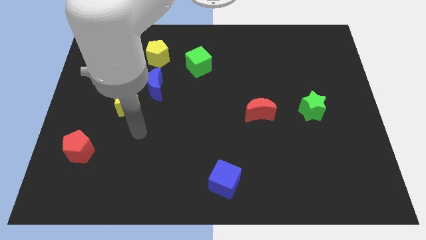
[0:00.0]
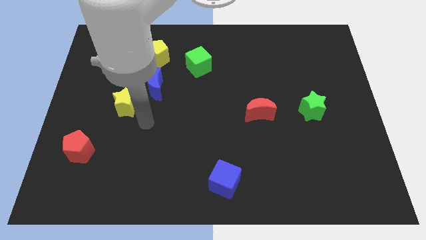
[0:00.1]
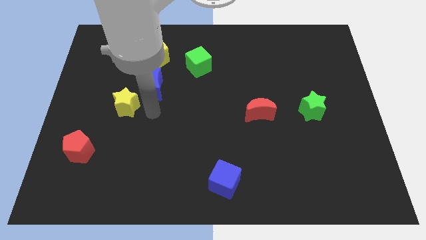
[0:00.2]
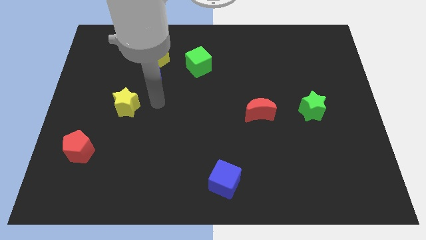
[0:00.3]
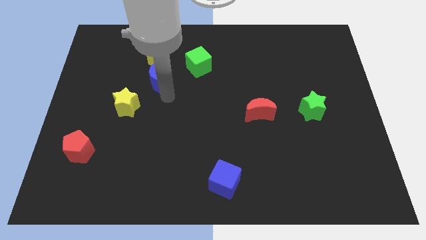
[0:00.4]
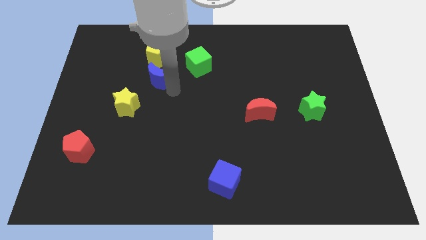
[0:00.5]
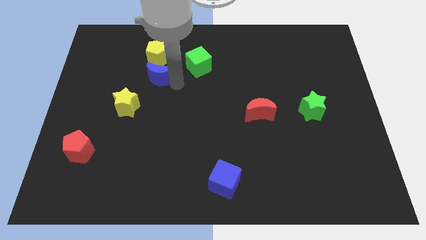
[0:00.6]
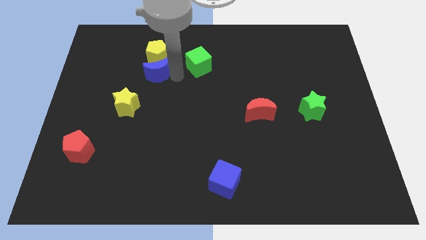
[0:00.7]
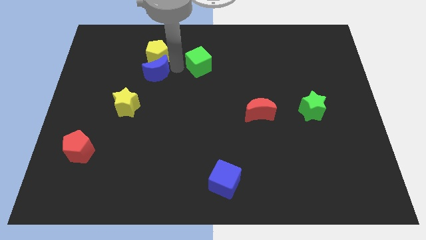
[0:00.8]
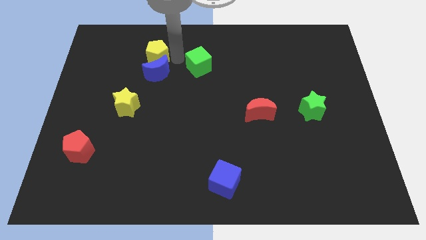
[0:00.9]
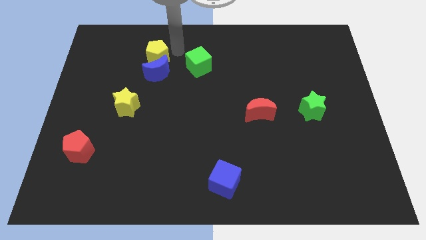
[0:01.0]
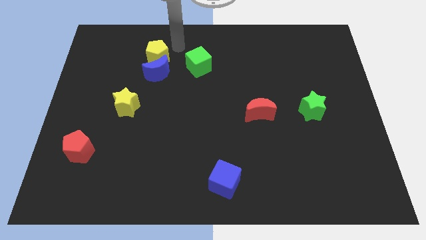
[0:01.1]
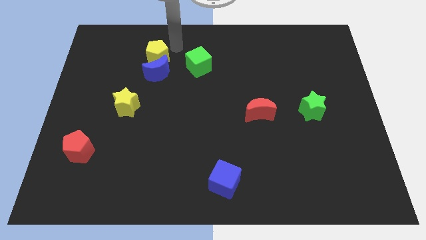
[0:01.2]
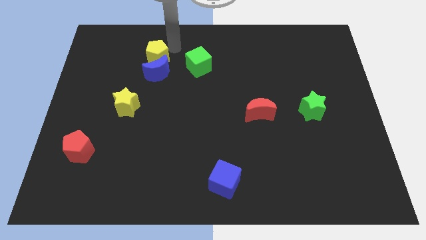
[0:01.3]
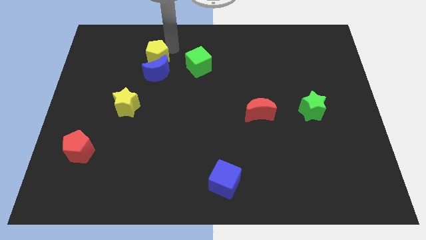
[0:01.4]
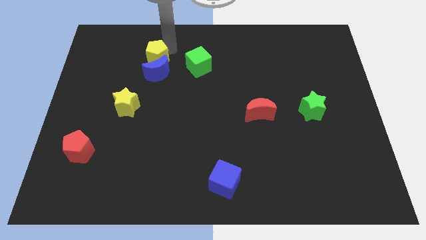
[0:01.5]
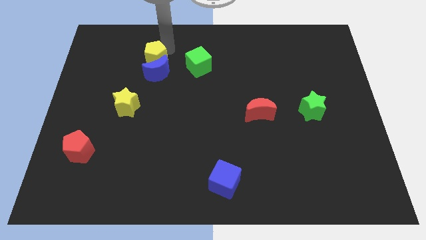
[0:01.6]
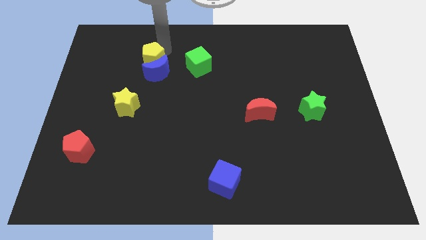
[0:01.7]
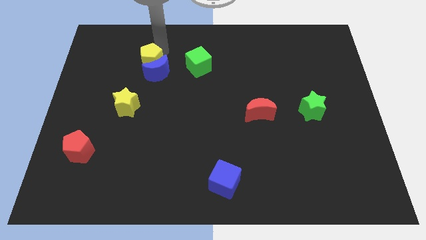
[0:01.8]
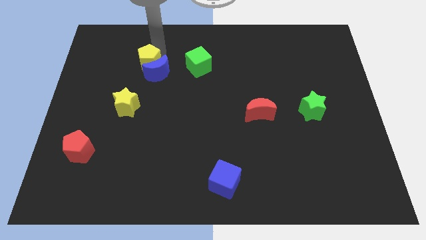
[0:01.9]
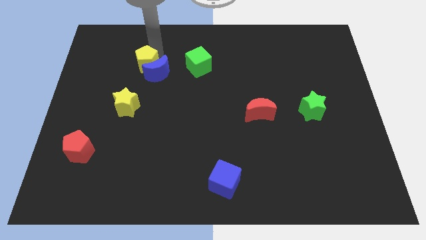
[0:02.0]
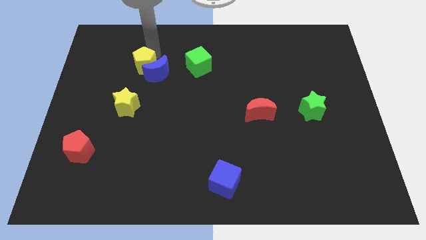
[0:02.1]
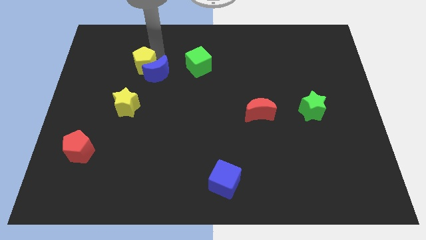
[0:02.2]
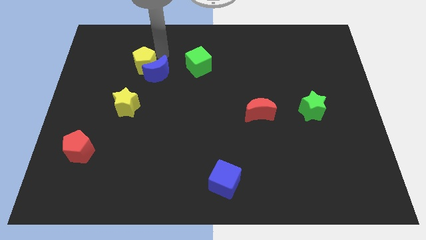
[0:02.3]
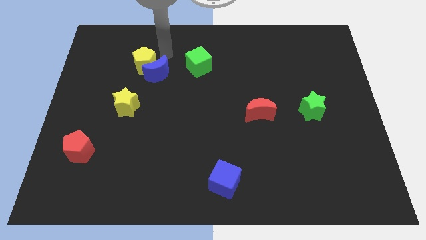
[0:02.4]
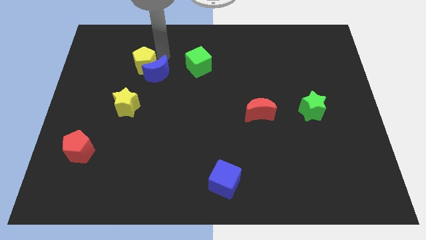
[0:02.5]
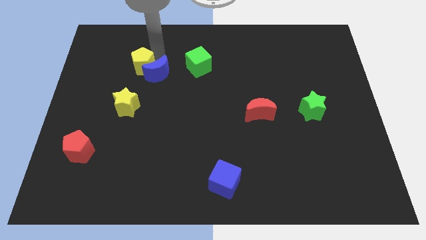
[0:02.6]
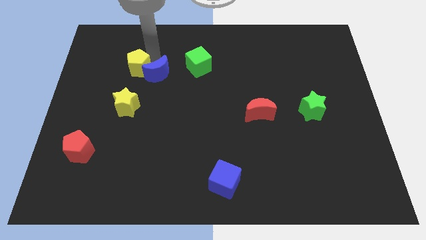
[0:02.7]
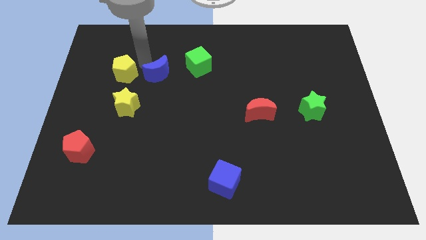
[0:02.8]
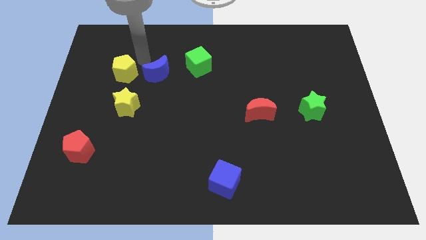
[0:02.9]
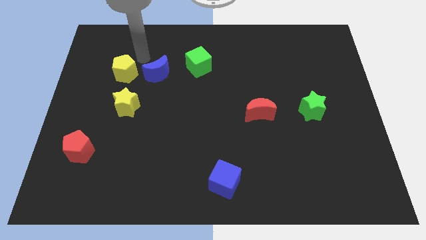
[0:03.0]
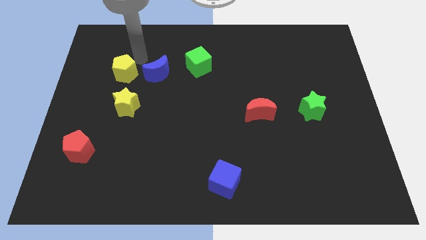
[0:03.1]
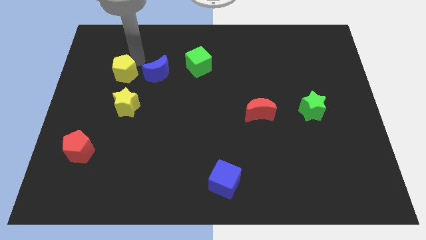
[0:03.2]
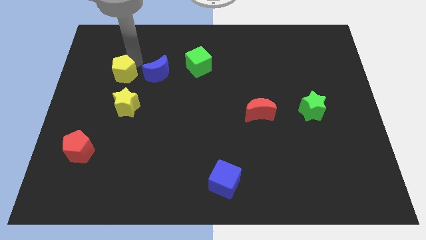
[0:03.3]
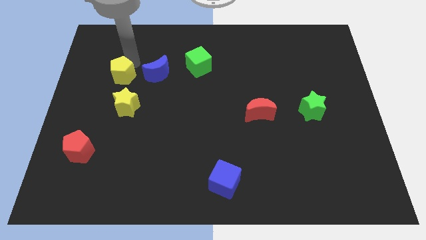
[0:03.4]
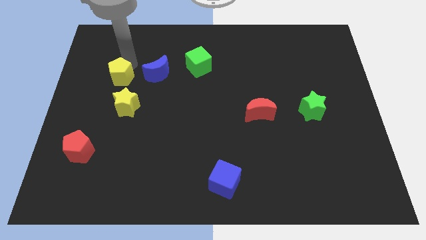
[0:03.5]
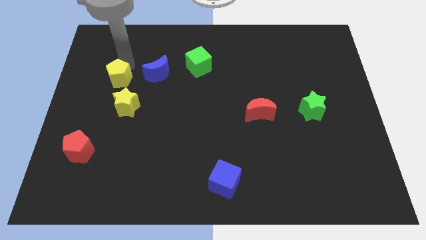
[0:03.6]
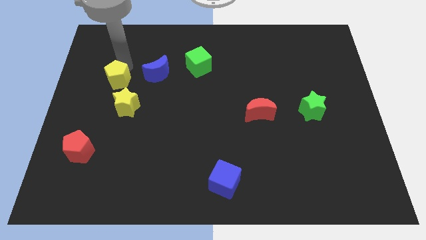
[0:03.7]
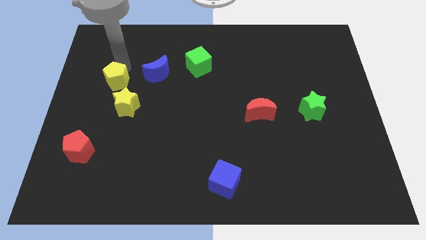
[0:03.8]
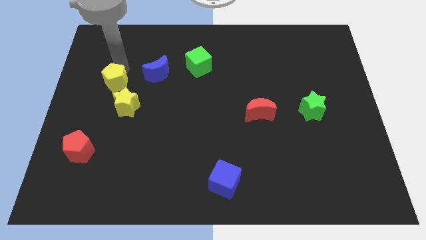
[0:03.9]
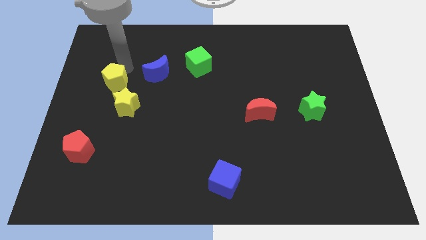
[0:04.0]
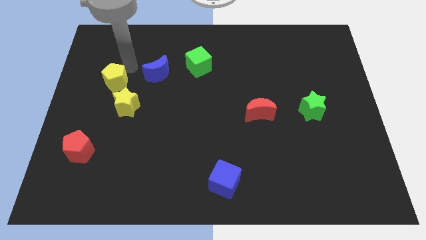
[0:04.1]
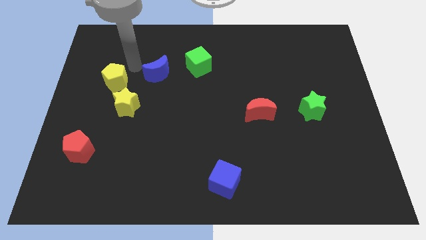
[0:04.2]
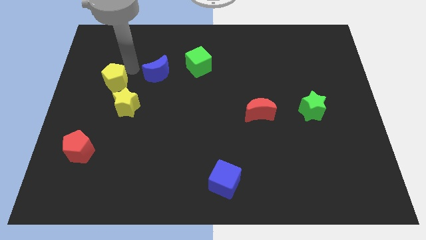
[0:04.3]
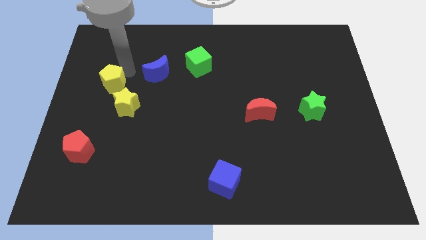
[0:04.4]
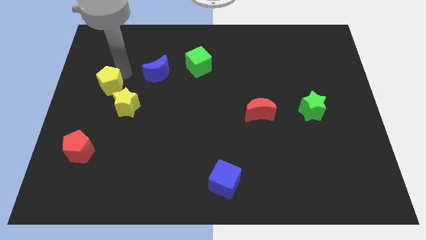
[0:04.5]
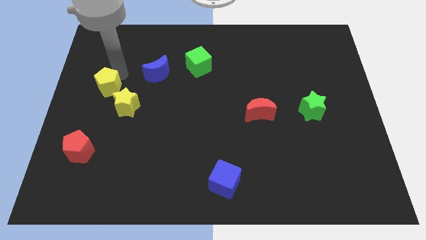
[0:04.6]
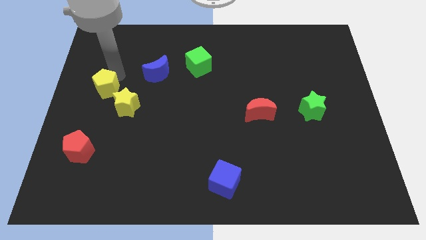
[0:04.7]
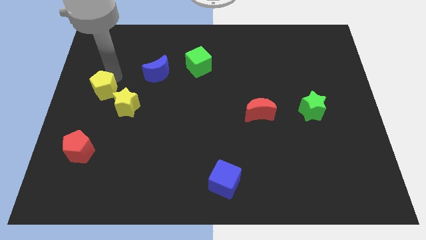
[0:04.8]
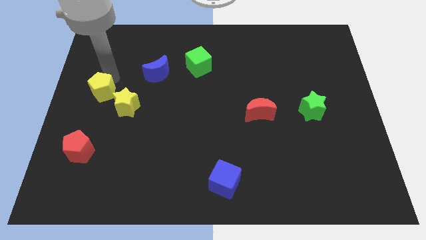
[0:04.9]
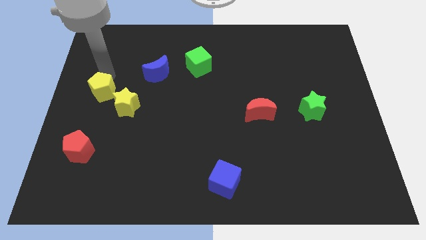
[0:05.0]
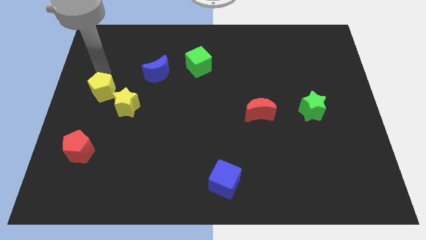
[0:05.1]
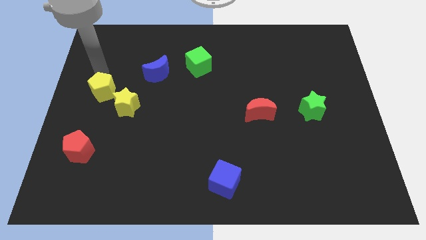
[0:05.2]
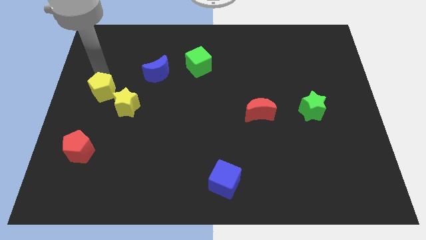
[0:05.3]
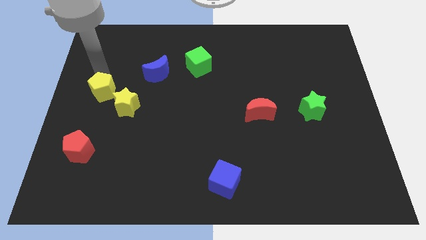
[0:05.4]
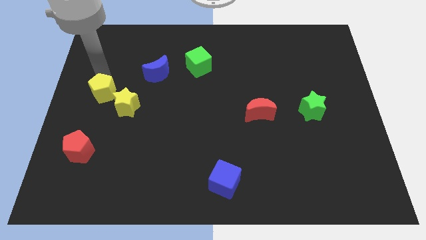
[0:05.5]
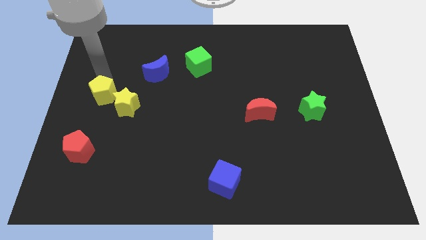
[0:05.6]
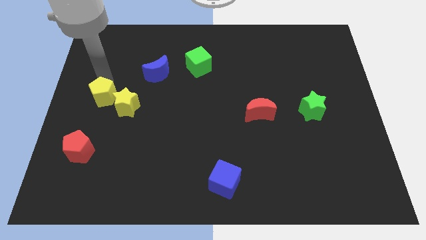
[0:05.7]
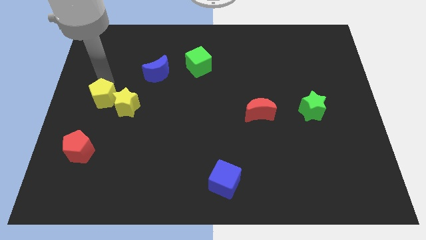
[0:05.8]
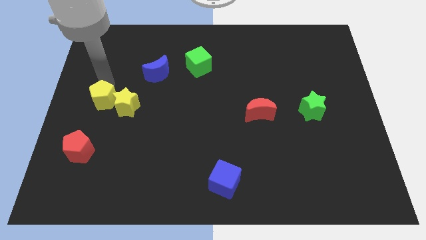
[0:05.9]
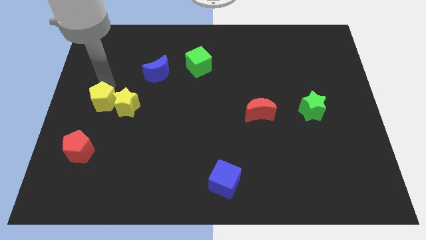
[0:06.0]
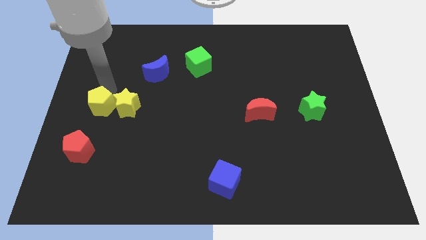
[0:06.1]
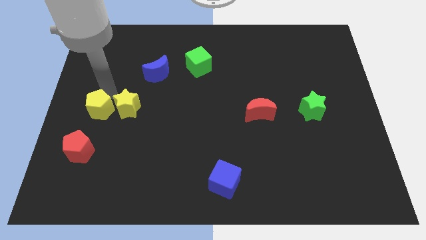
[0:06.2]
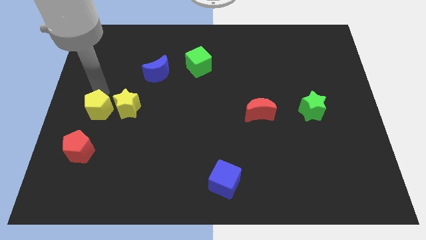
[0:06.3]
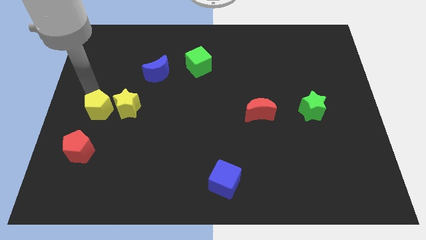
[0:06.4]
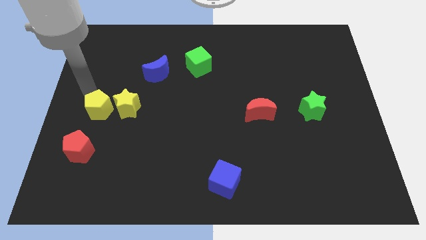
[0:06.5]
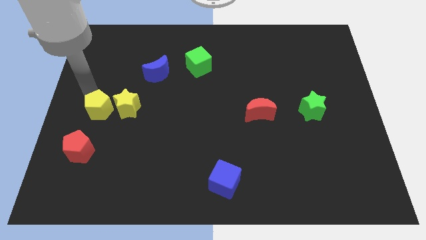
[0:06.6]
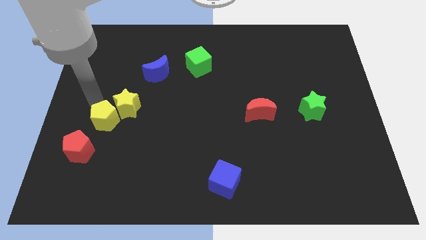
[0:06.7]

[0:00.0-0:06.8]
move the yellow pentagon to the bottom side of the yellow star
